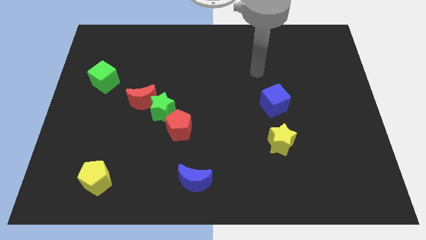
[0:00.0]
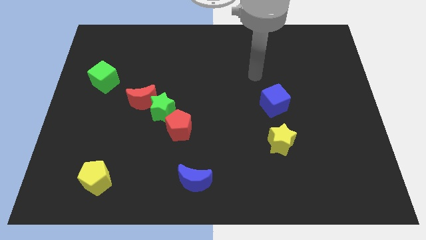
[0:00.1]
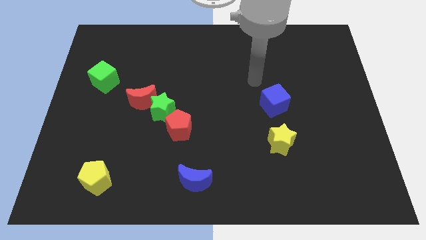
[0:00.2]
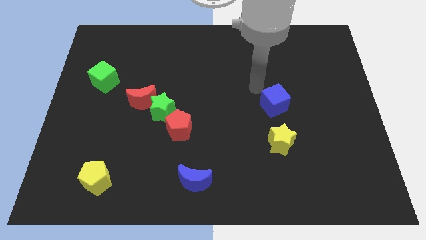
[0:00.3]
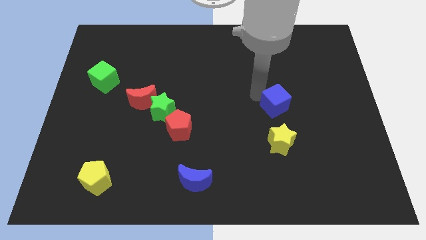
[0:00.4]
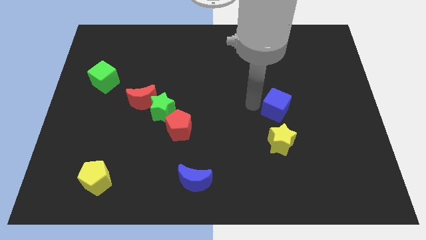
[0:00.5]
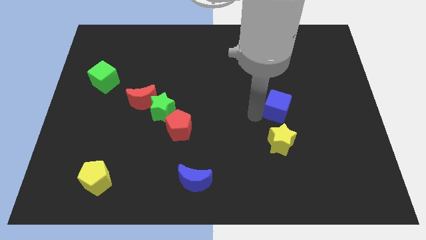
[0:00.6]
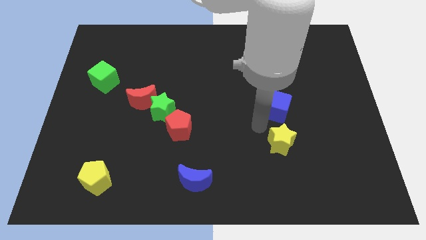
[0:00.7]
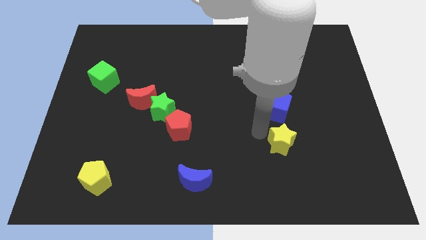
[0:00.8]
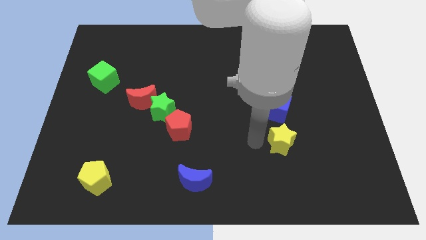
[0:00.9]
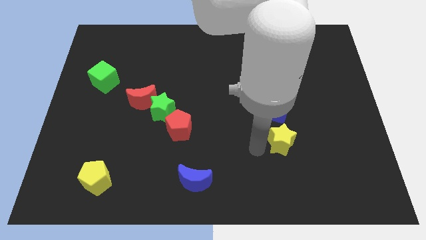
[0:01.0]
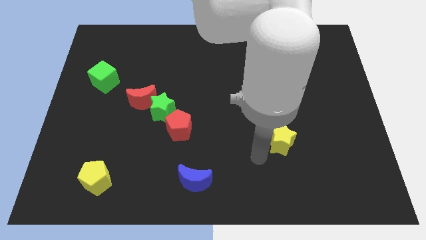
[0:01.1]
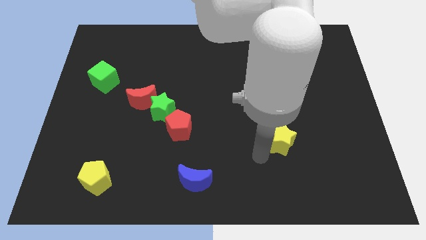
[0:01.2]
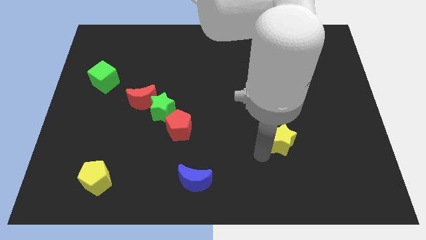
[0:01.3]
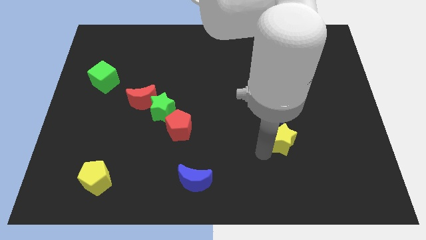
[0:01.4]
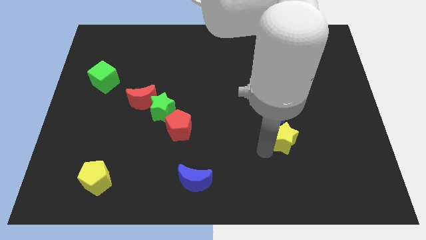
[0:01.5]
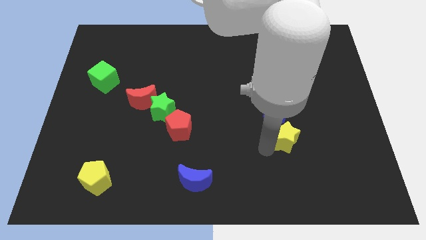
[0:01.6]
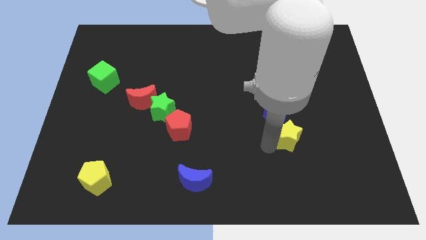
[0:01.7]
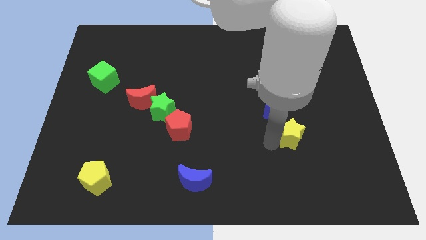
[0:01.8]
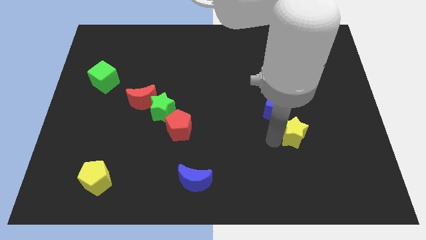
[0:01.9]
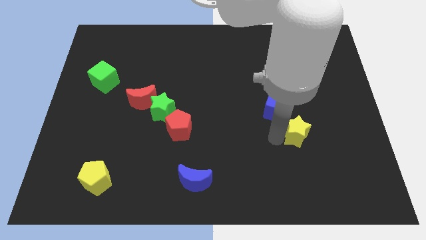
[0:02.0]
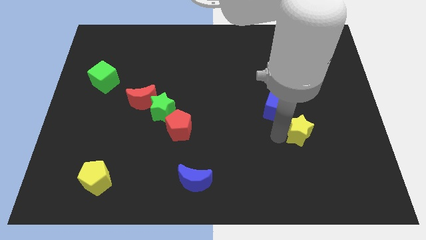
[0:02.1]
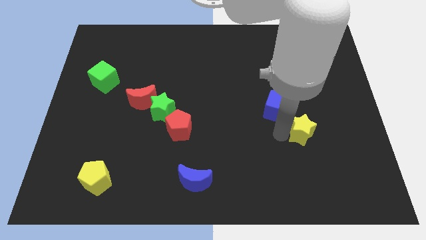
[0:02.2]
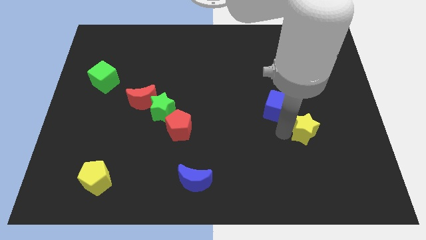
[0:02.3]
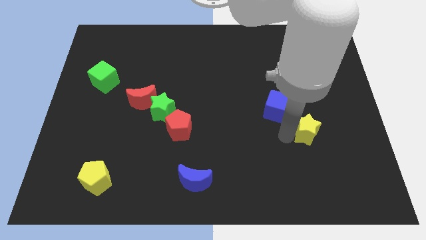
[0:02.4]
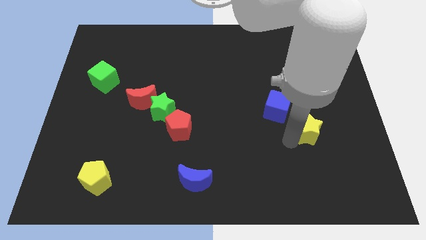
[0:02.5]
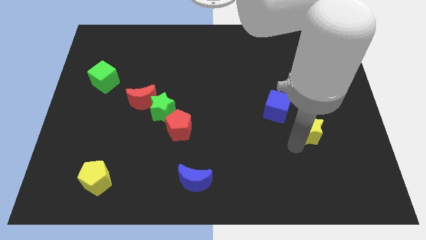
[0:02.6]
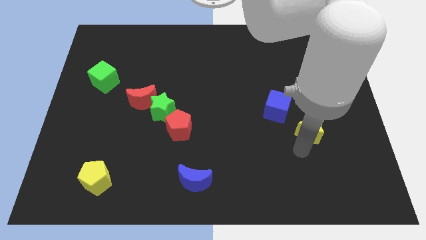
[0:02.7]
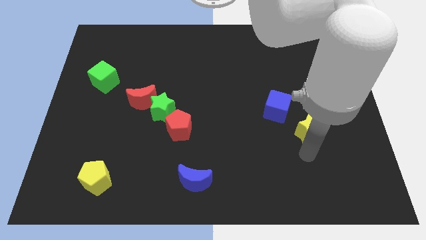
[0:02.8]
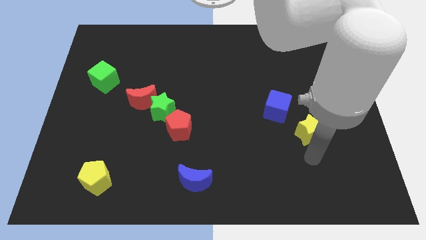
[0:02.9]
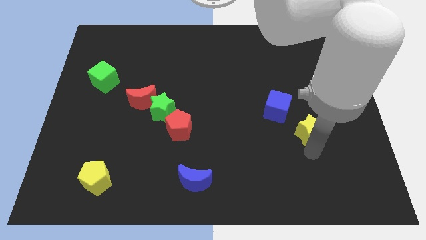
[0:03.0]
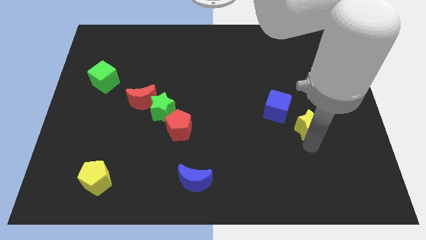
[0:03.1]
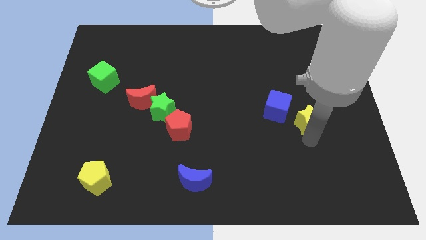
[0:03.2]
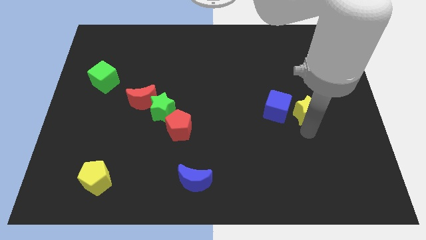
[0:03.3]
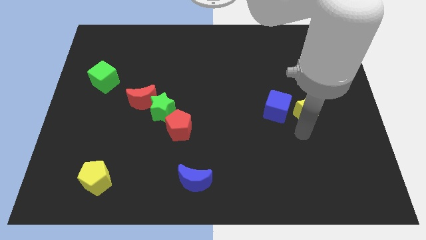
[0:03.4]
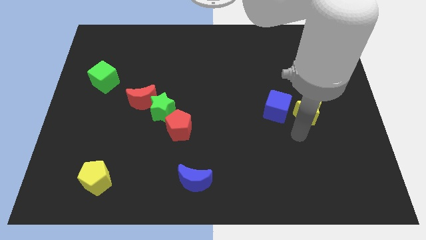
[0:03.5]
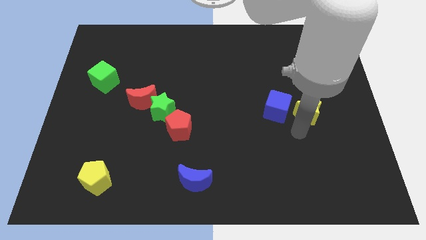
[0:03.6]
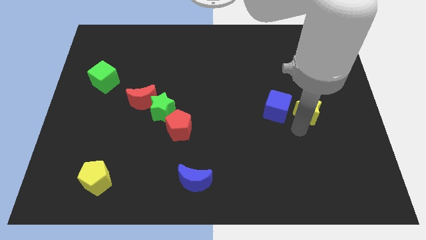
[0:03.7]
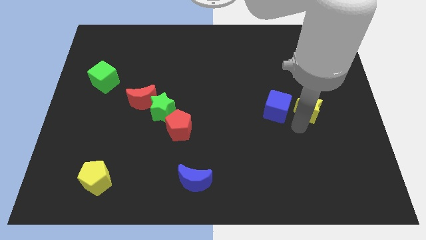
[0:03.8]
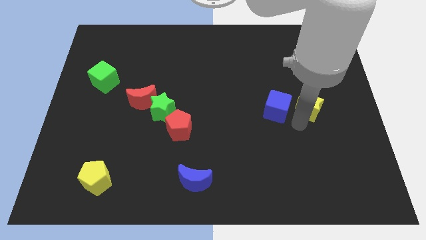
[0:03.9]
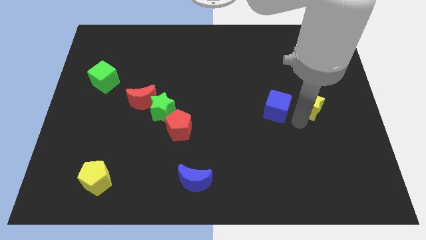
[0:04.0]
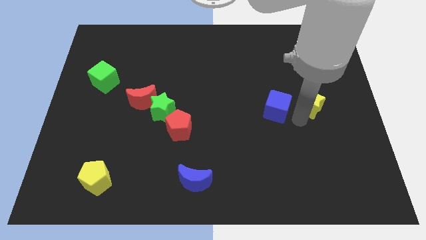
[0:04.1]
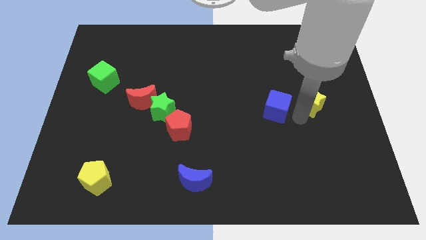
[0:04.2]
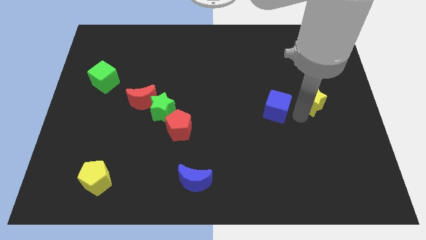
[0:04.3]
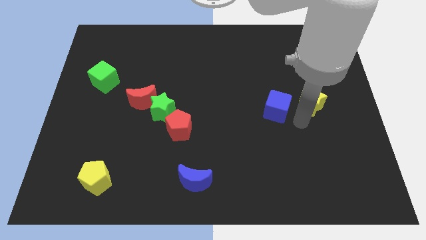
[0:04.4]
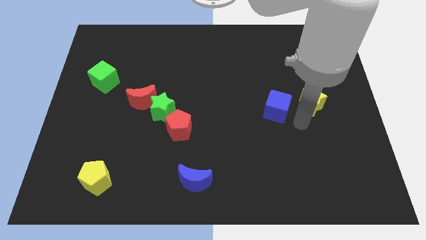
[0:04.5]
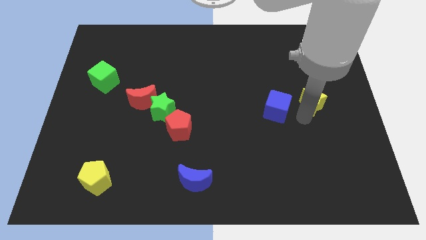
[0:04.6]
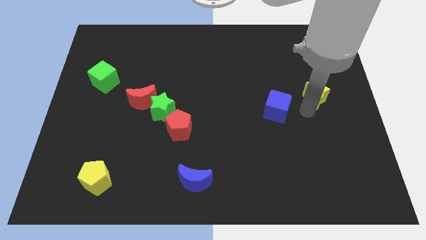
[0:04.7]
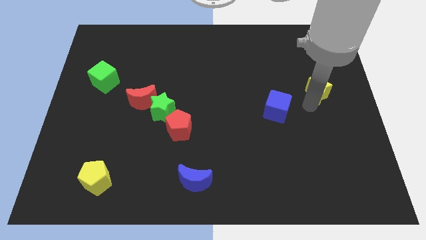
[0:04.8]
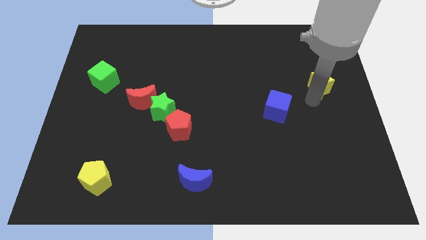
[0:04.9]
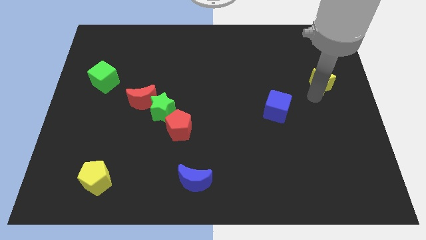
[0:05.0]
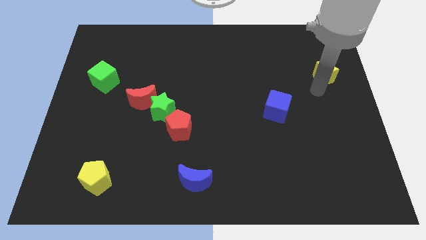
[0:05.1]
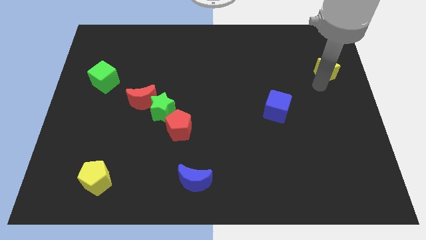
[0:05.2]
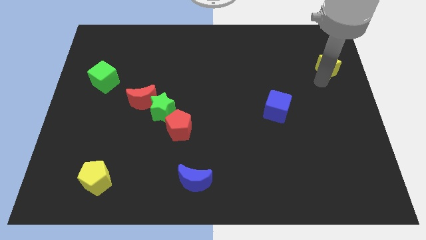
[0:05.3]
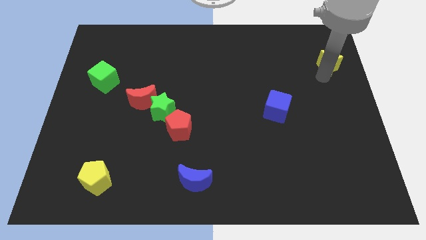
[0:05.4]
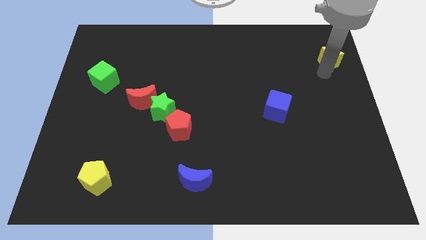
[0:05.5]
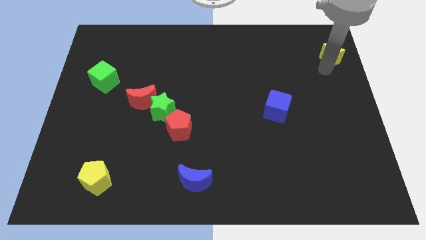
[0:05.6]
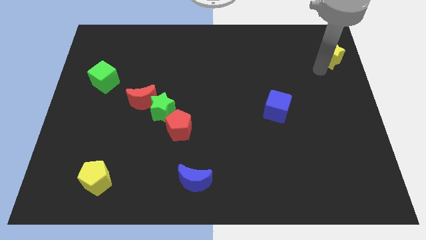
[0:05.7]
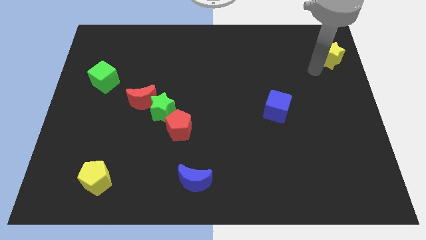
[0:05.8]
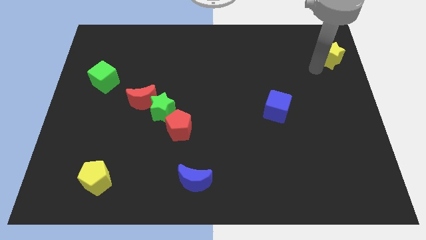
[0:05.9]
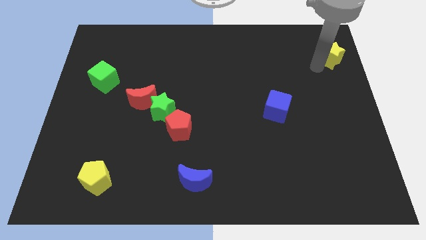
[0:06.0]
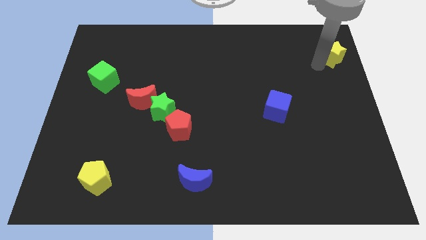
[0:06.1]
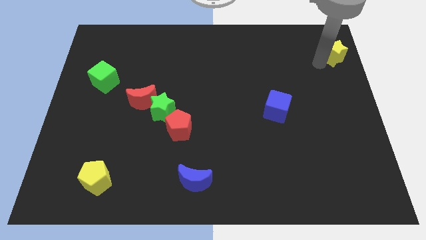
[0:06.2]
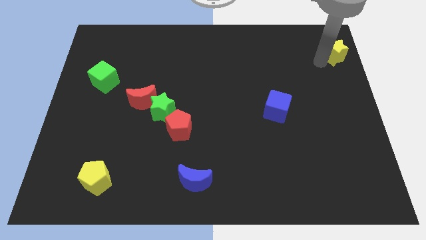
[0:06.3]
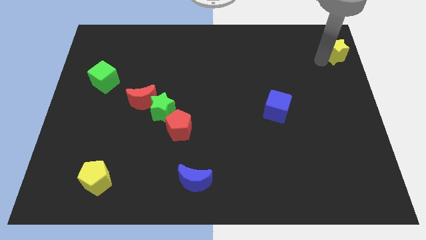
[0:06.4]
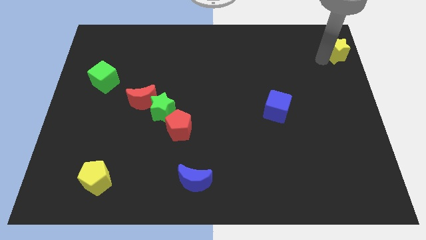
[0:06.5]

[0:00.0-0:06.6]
push the yellow star to the top right of the board

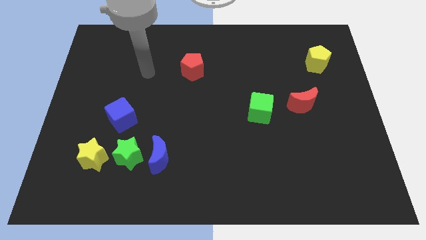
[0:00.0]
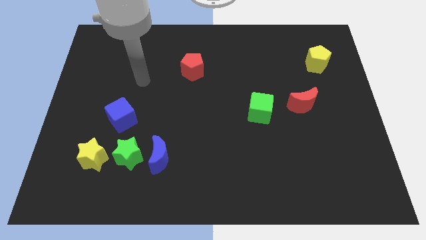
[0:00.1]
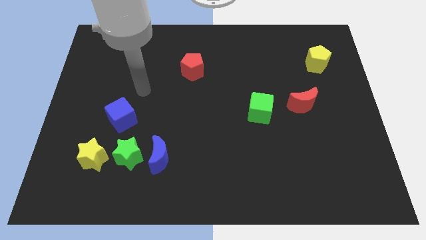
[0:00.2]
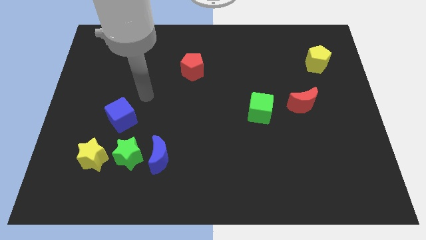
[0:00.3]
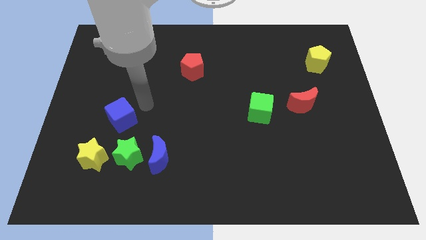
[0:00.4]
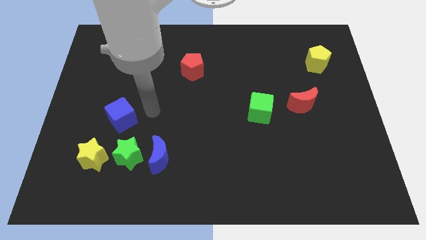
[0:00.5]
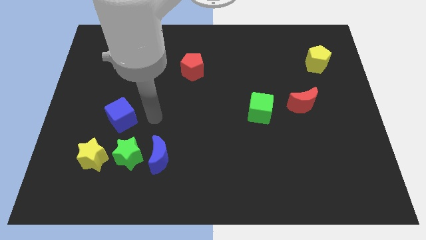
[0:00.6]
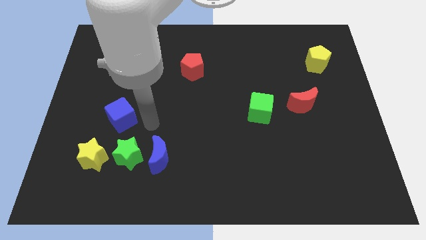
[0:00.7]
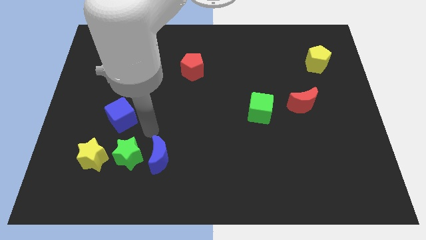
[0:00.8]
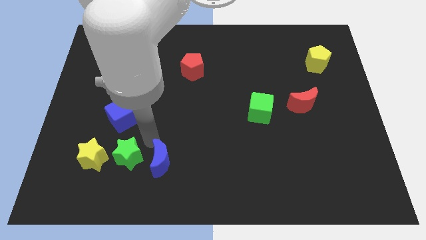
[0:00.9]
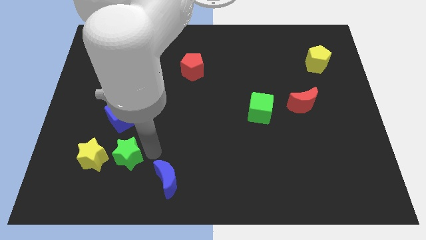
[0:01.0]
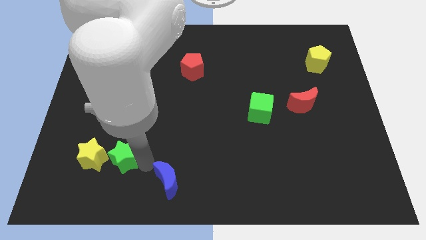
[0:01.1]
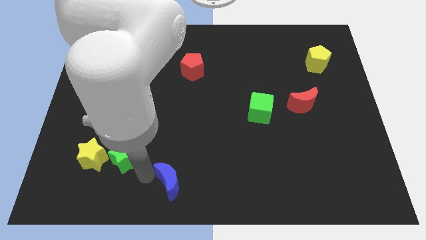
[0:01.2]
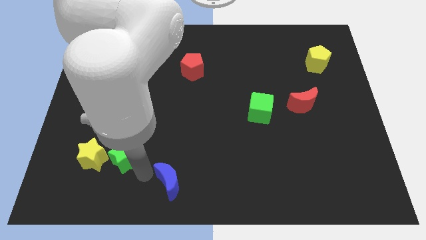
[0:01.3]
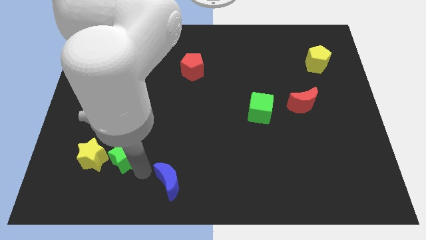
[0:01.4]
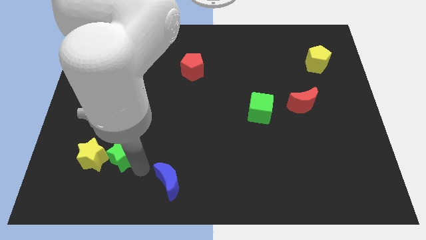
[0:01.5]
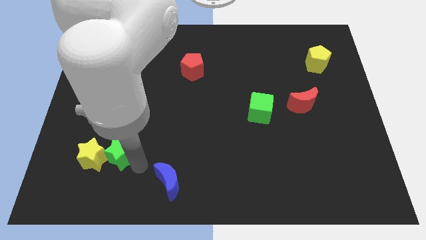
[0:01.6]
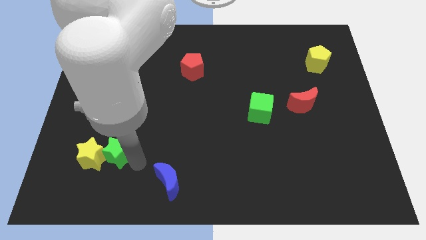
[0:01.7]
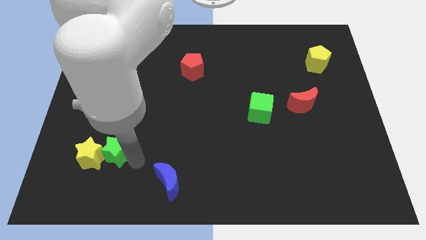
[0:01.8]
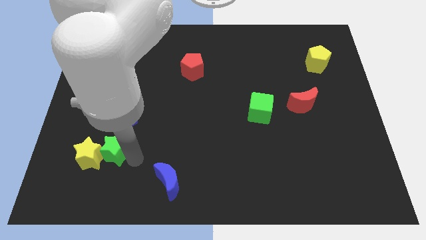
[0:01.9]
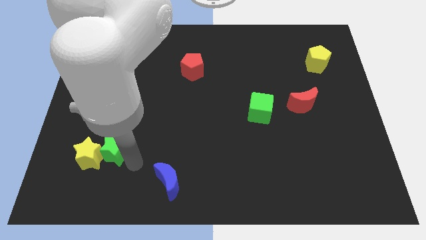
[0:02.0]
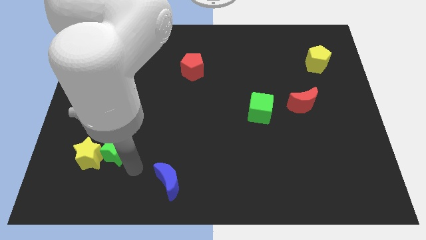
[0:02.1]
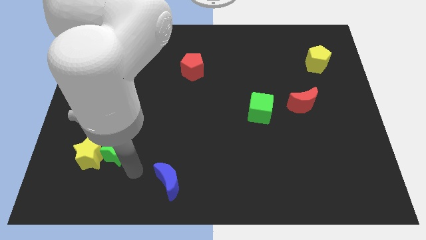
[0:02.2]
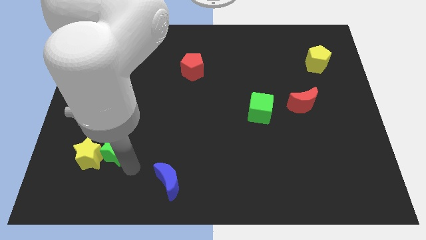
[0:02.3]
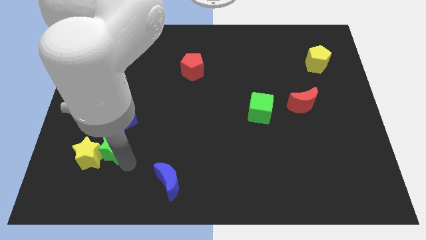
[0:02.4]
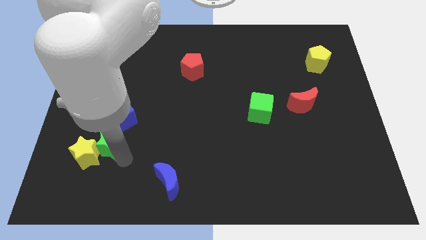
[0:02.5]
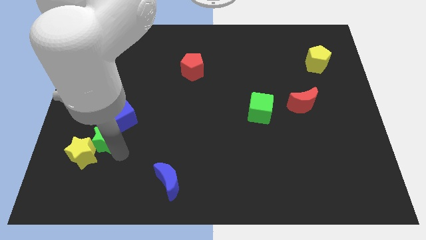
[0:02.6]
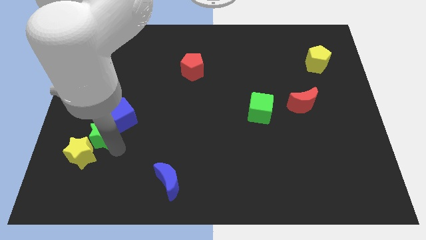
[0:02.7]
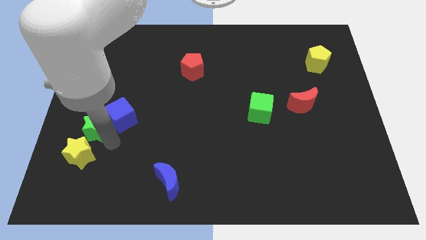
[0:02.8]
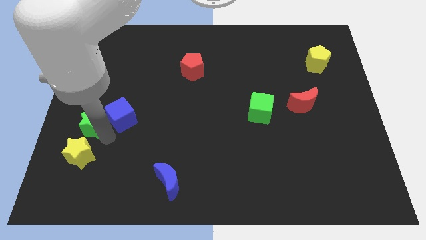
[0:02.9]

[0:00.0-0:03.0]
put the green star to the left side of the board
